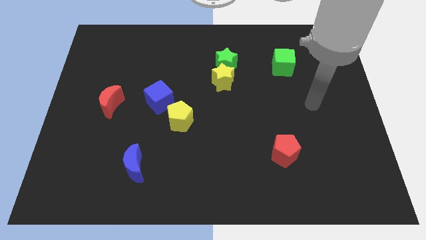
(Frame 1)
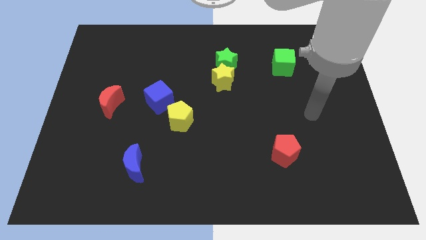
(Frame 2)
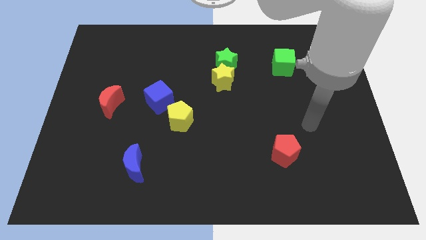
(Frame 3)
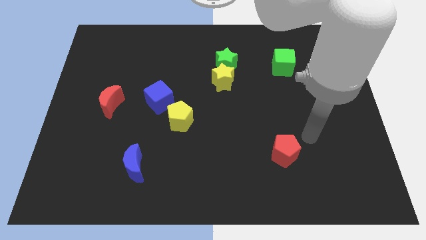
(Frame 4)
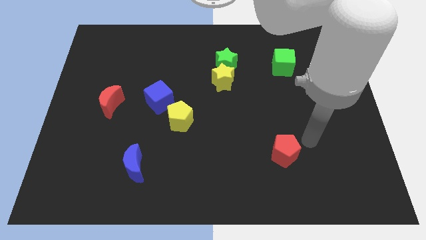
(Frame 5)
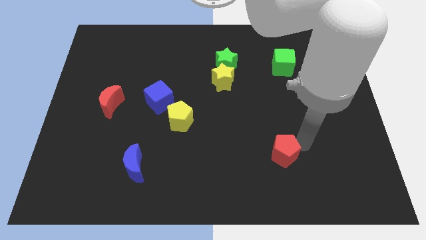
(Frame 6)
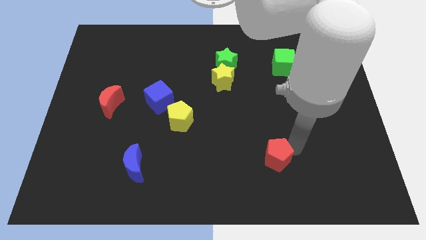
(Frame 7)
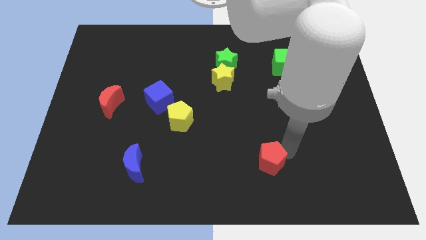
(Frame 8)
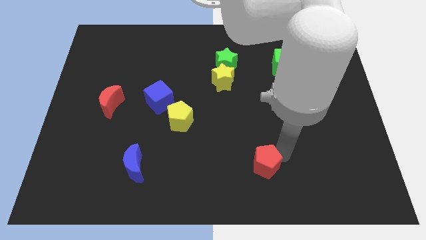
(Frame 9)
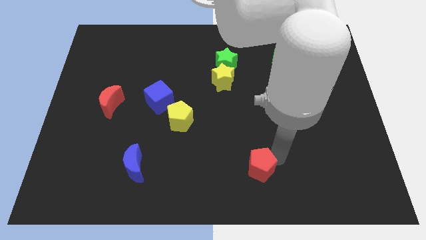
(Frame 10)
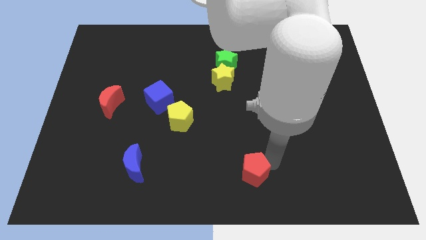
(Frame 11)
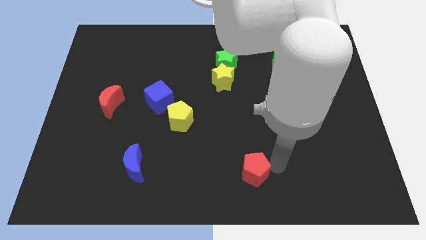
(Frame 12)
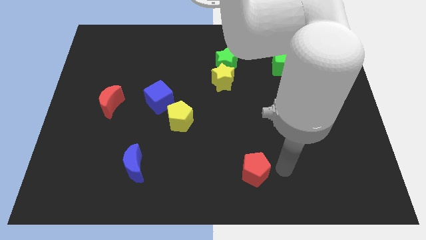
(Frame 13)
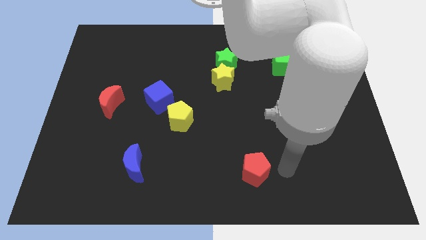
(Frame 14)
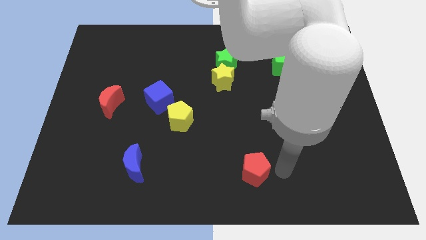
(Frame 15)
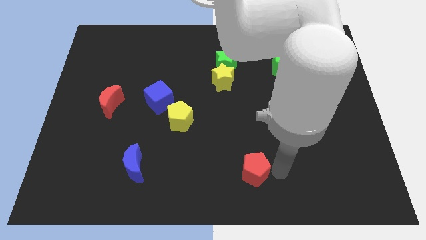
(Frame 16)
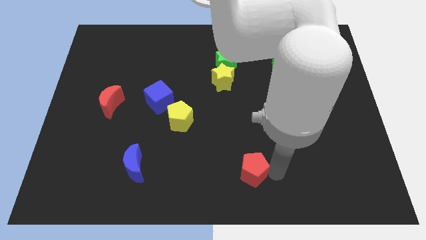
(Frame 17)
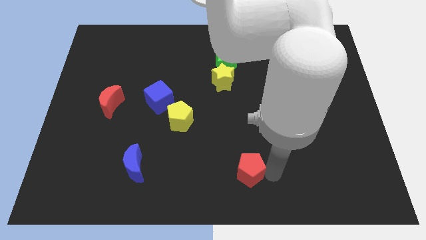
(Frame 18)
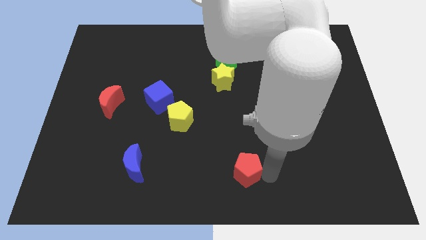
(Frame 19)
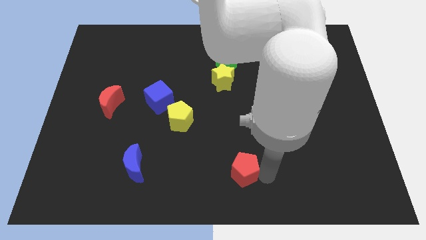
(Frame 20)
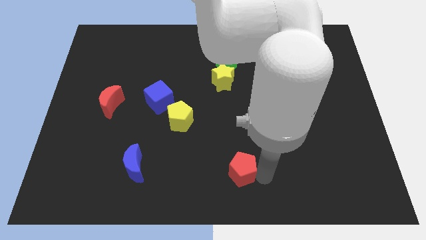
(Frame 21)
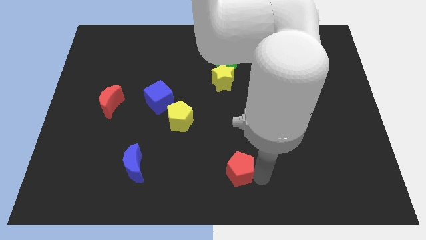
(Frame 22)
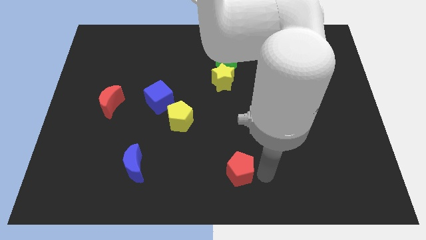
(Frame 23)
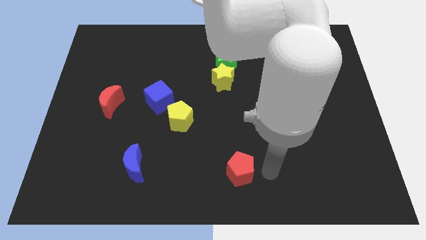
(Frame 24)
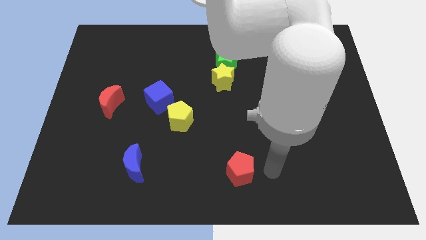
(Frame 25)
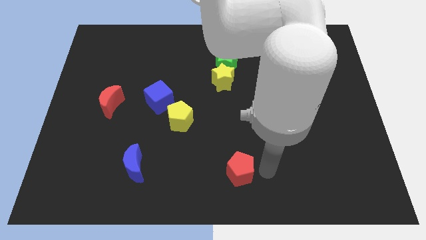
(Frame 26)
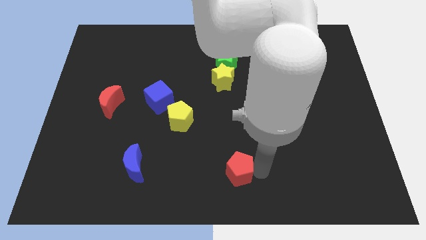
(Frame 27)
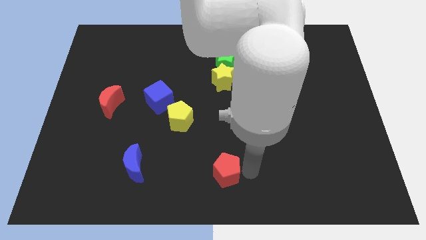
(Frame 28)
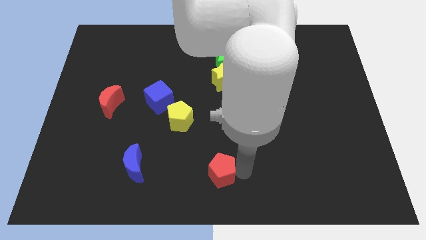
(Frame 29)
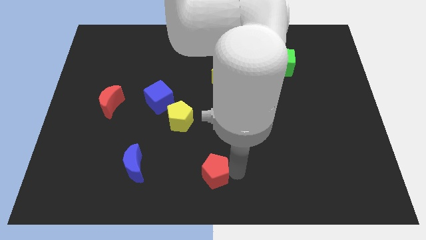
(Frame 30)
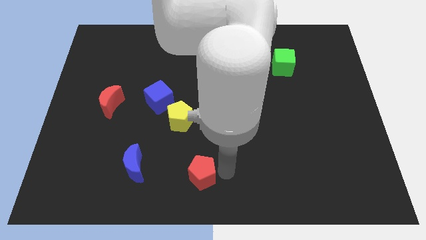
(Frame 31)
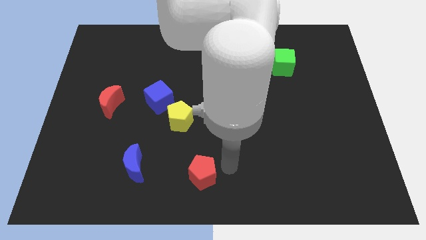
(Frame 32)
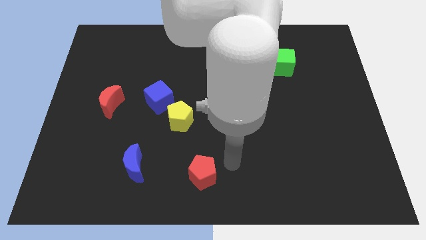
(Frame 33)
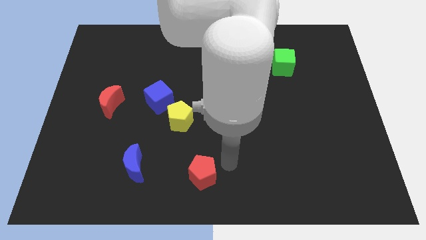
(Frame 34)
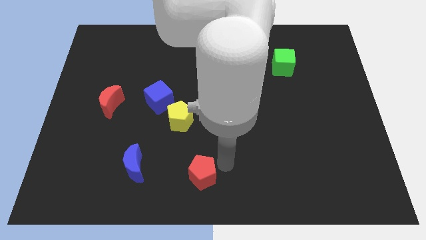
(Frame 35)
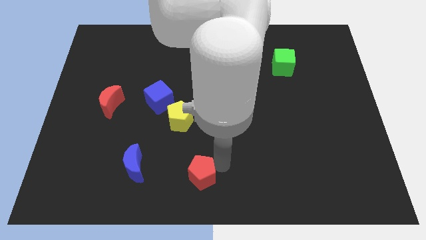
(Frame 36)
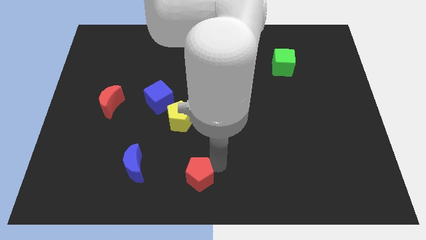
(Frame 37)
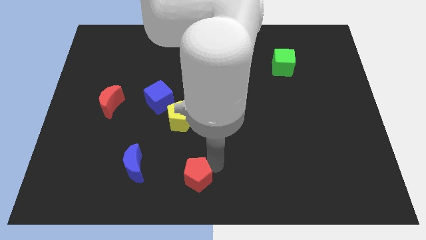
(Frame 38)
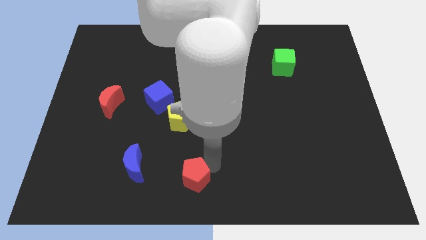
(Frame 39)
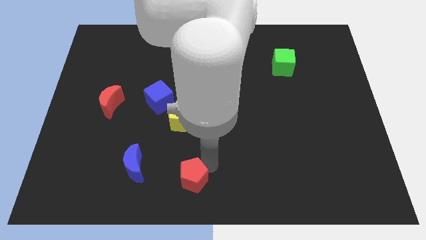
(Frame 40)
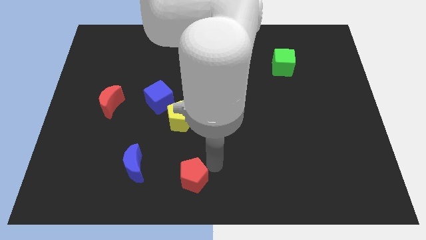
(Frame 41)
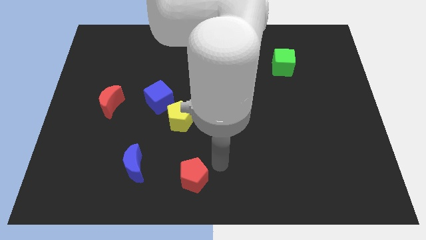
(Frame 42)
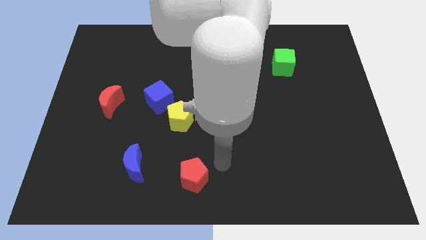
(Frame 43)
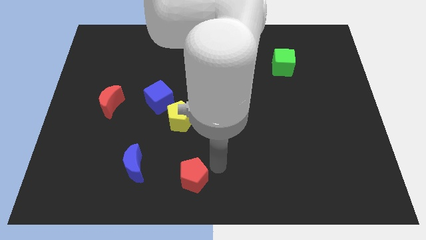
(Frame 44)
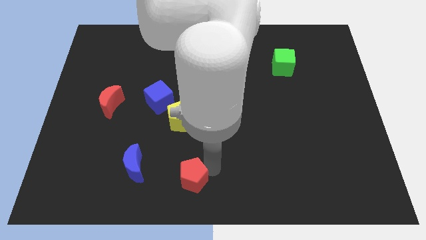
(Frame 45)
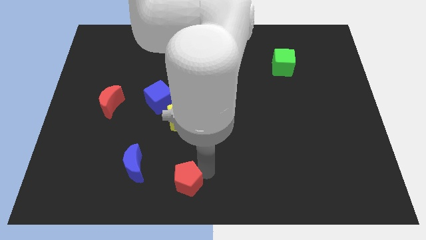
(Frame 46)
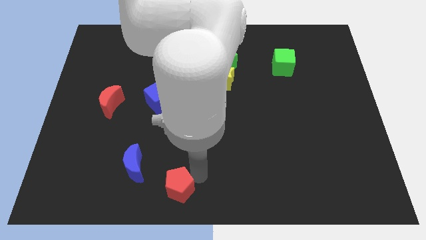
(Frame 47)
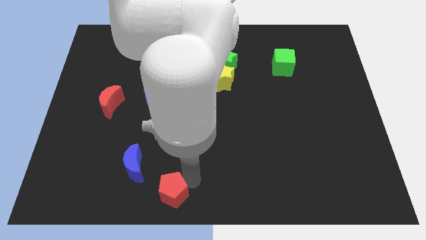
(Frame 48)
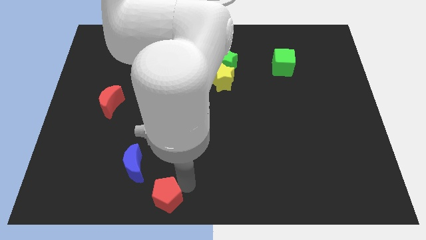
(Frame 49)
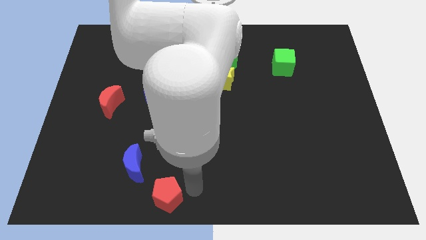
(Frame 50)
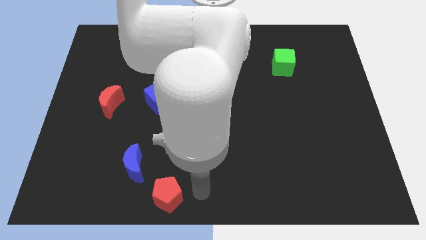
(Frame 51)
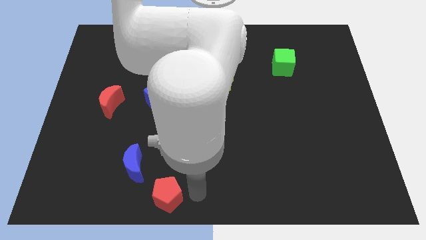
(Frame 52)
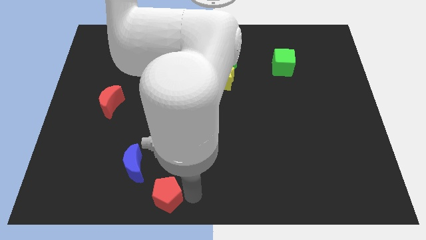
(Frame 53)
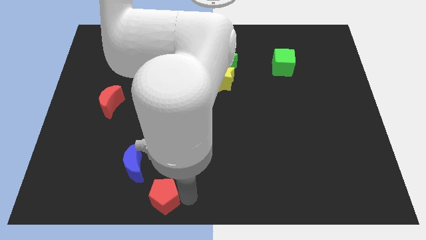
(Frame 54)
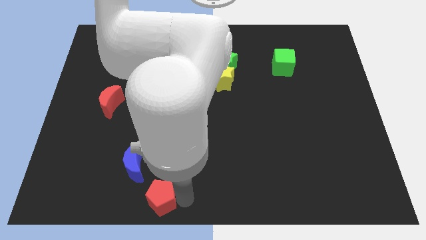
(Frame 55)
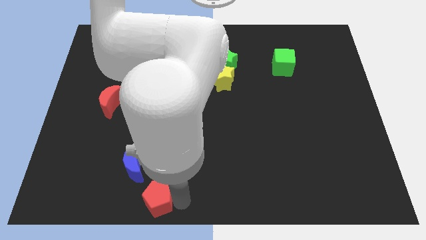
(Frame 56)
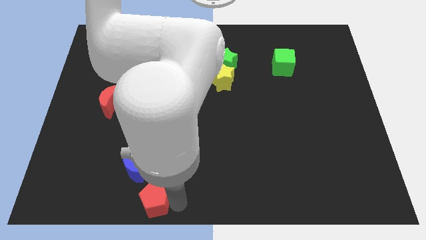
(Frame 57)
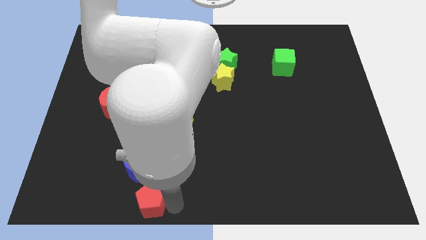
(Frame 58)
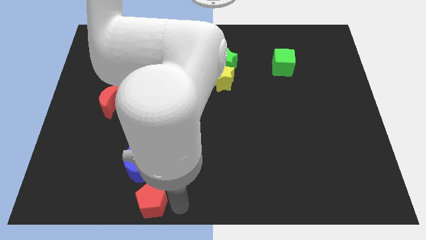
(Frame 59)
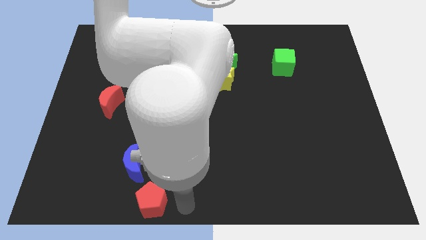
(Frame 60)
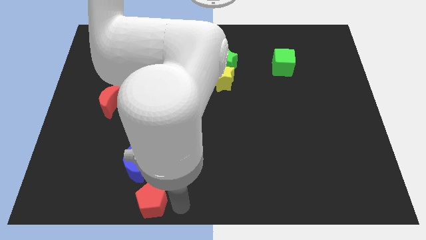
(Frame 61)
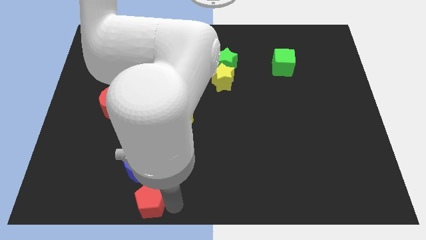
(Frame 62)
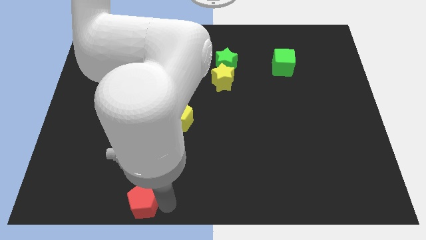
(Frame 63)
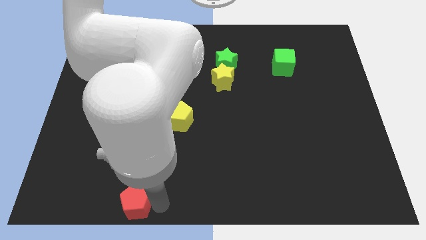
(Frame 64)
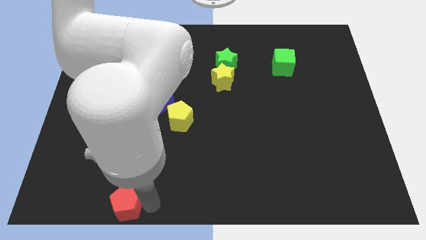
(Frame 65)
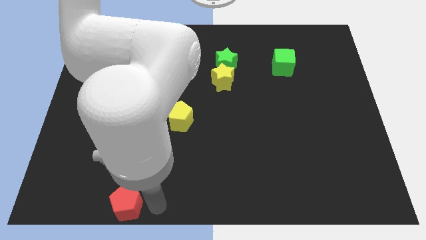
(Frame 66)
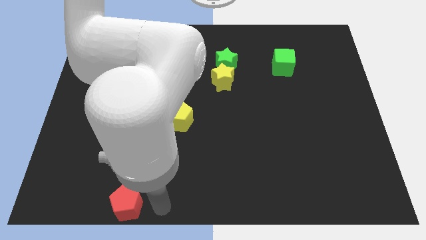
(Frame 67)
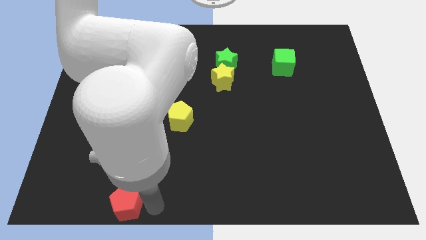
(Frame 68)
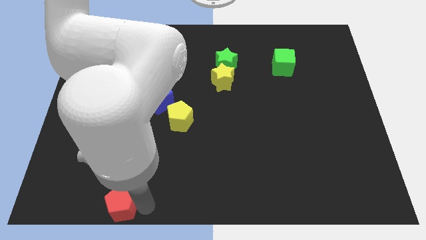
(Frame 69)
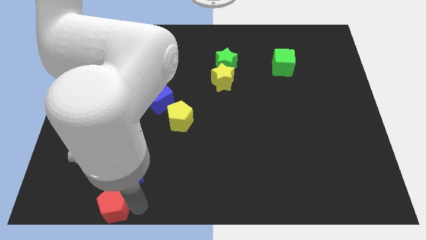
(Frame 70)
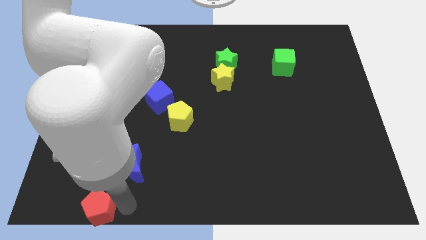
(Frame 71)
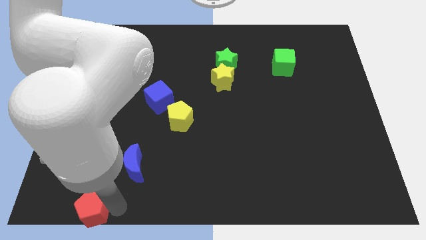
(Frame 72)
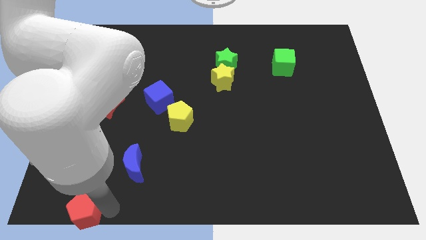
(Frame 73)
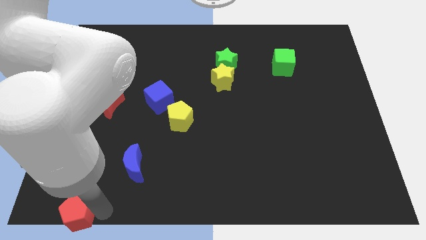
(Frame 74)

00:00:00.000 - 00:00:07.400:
slide the red pentagon to the bottom left
